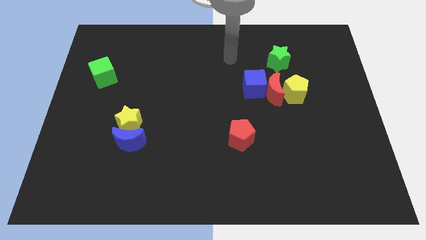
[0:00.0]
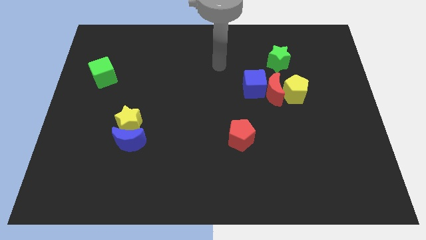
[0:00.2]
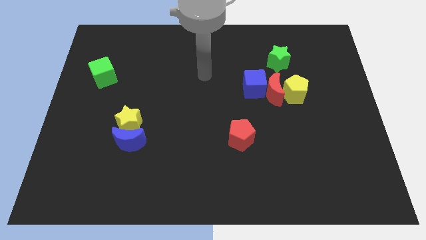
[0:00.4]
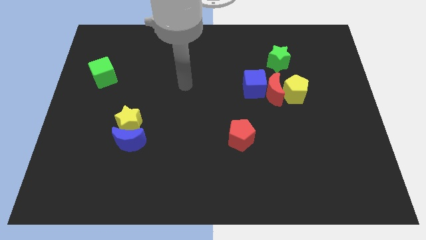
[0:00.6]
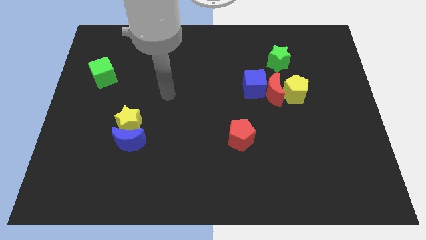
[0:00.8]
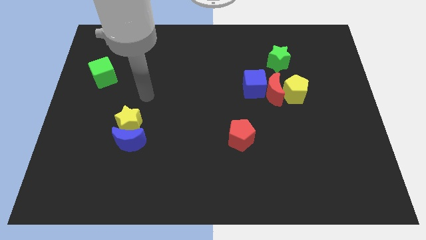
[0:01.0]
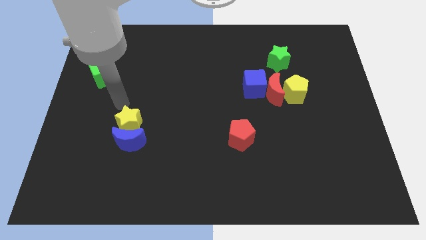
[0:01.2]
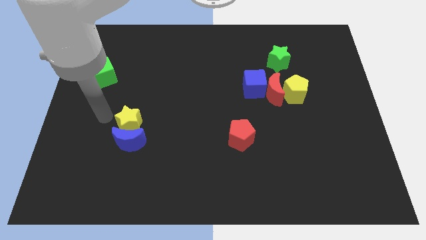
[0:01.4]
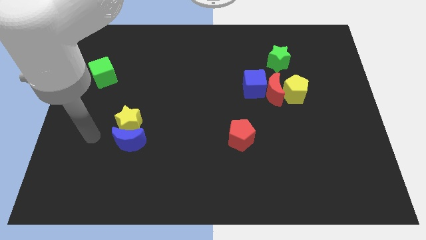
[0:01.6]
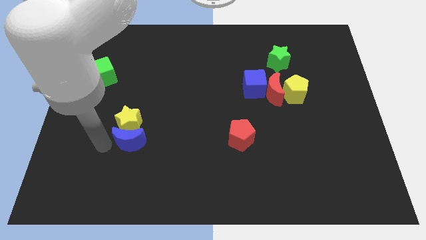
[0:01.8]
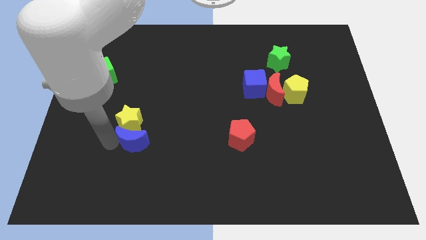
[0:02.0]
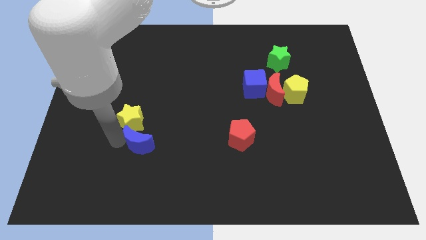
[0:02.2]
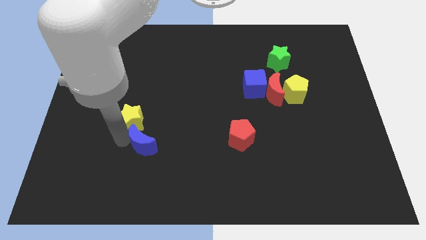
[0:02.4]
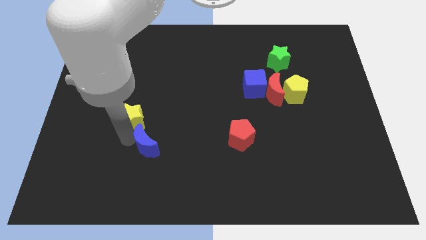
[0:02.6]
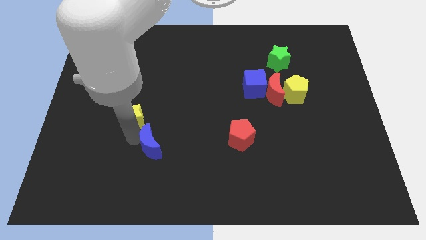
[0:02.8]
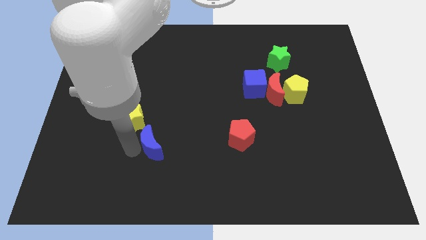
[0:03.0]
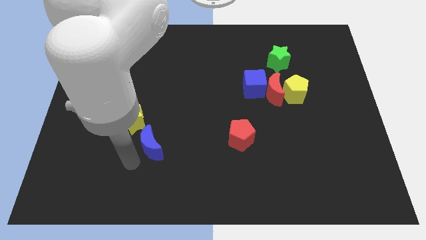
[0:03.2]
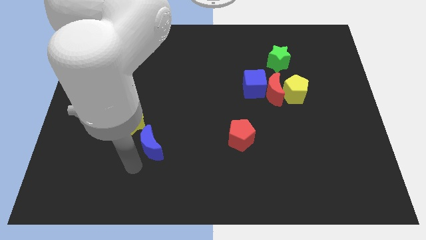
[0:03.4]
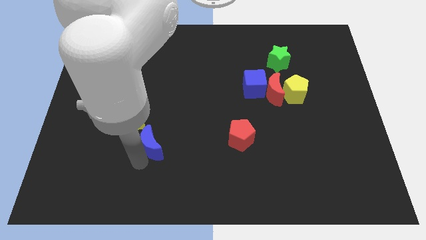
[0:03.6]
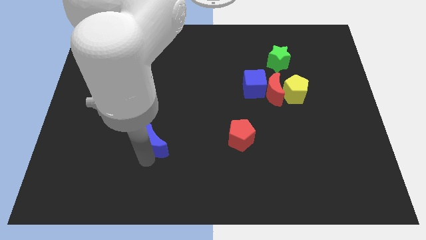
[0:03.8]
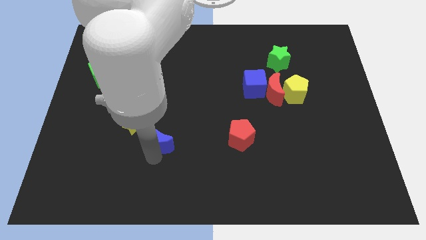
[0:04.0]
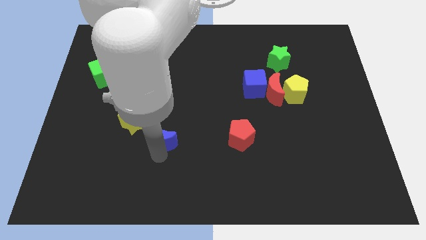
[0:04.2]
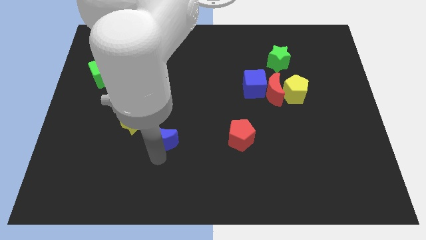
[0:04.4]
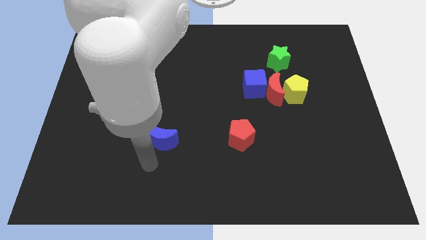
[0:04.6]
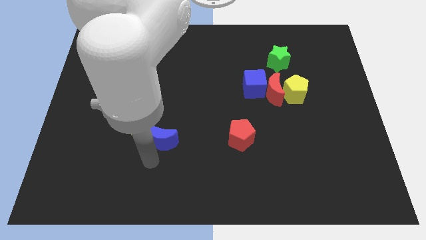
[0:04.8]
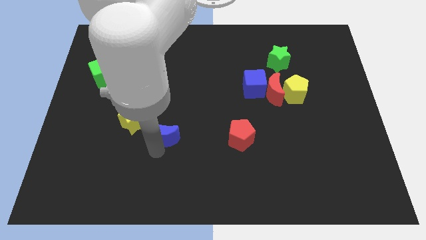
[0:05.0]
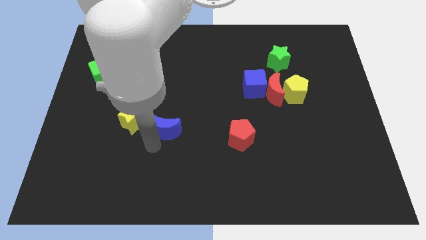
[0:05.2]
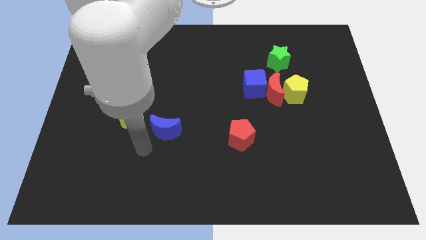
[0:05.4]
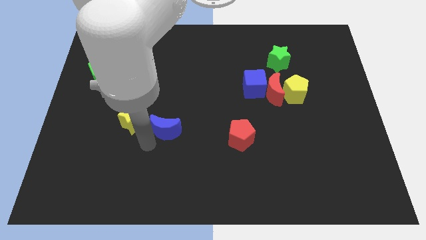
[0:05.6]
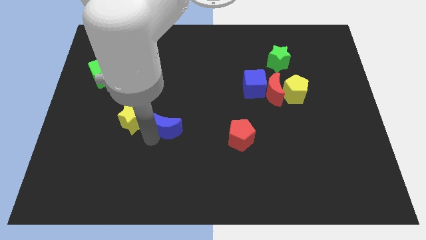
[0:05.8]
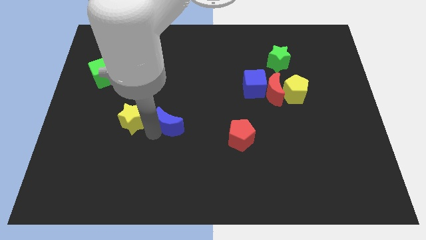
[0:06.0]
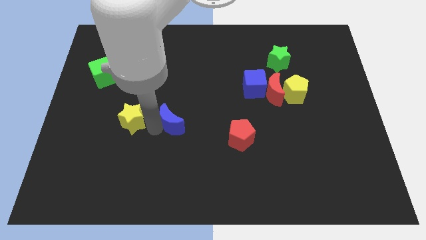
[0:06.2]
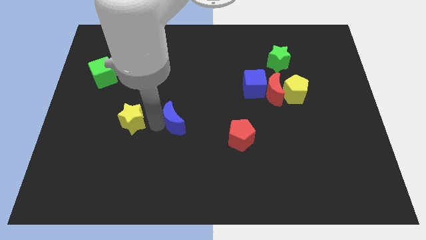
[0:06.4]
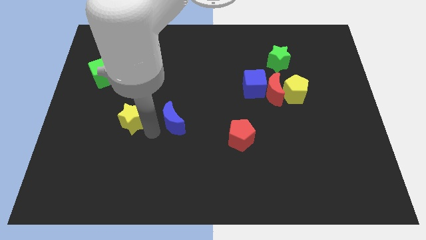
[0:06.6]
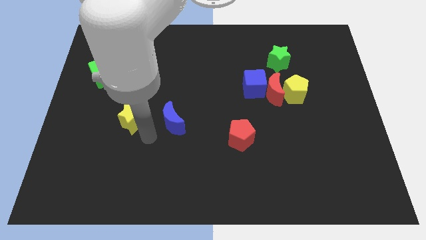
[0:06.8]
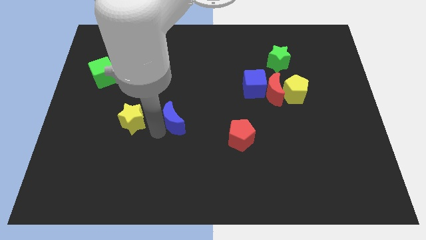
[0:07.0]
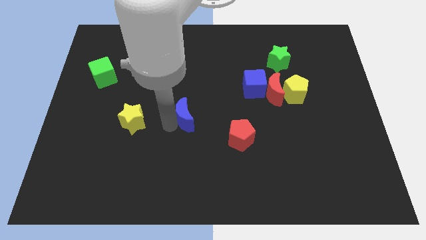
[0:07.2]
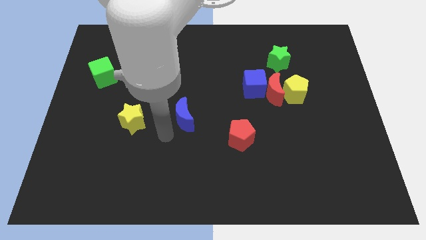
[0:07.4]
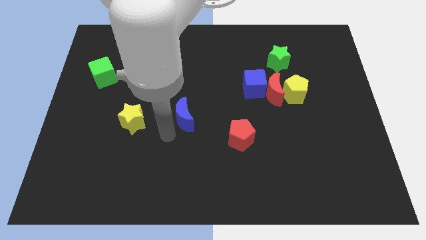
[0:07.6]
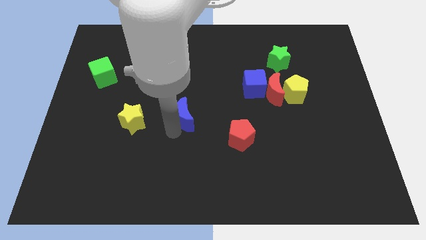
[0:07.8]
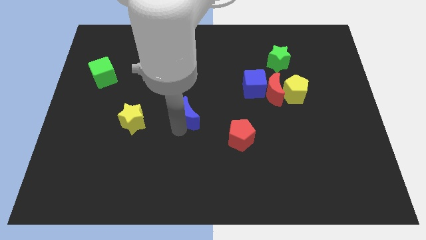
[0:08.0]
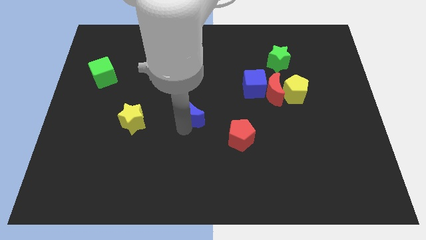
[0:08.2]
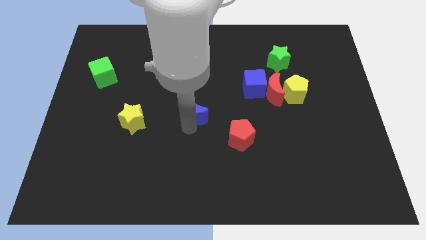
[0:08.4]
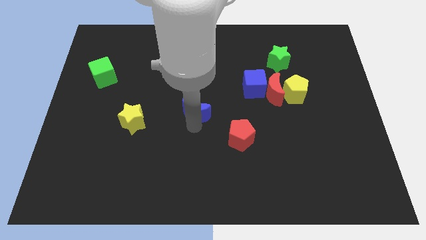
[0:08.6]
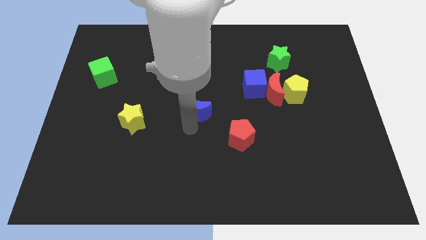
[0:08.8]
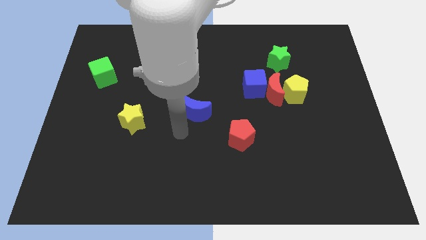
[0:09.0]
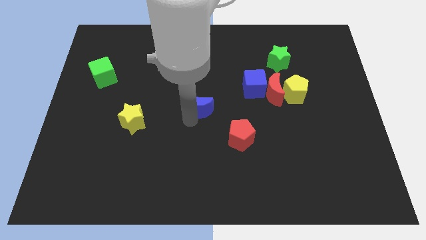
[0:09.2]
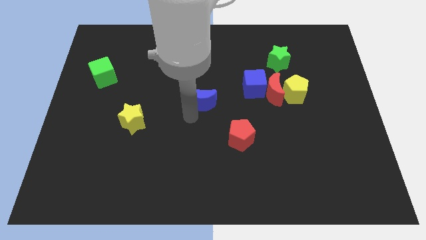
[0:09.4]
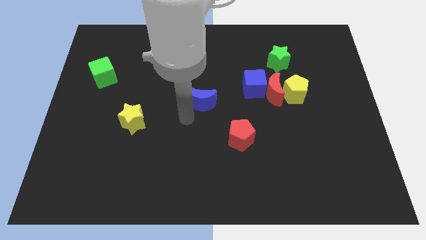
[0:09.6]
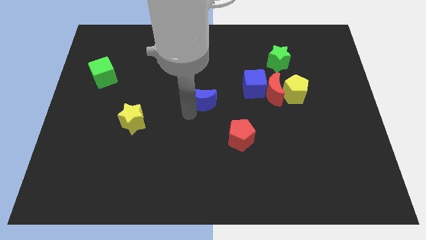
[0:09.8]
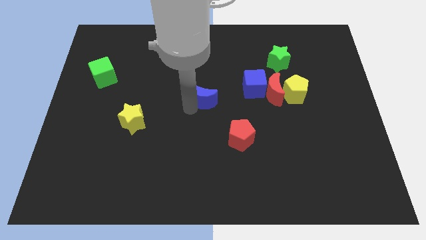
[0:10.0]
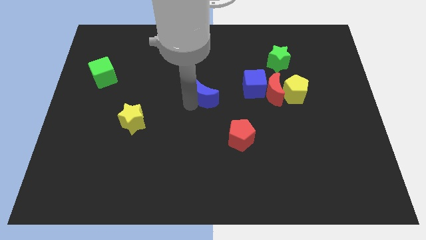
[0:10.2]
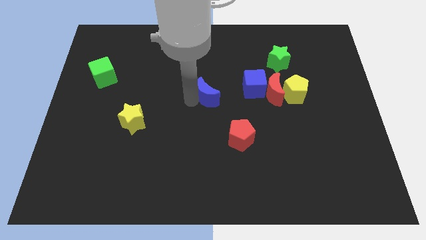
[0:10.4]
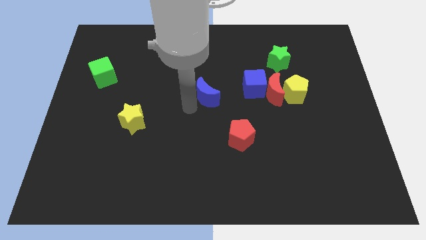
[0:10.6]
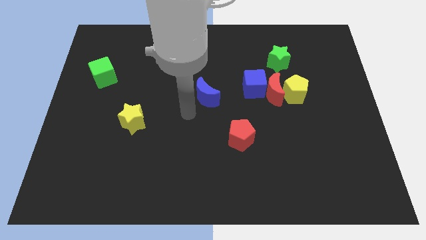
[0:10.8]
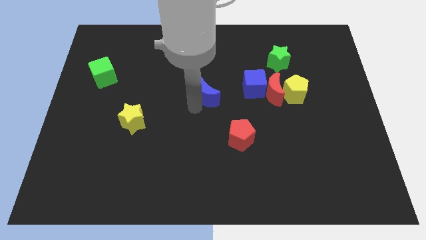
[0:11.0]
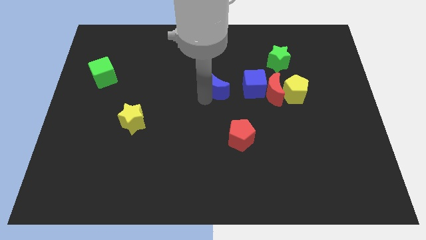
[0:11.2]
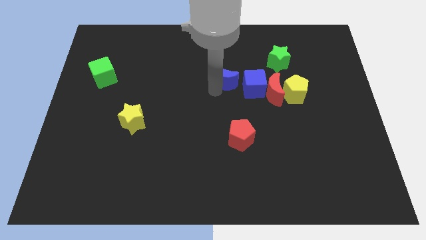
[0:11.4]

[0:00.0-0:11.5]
put the blue moon diagonally up and to the left of the blue cube

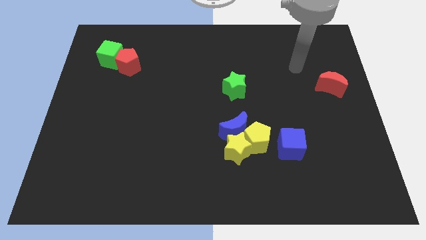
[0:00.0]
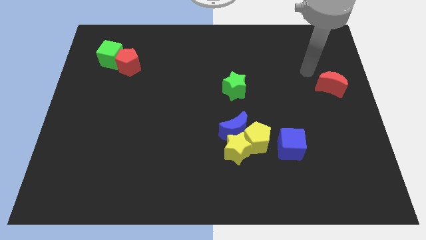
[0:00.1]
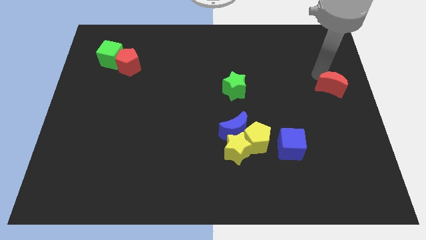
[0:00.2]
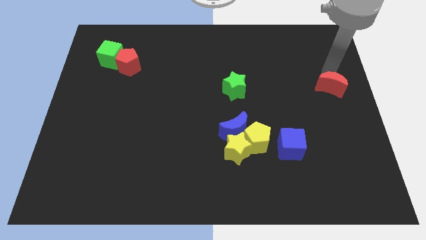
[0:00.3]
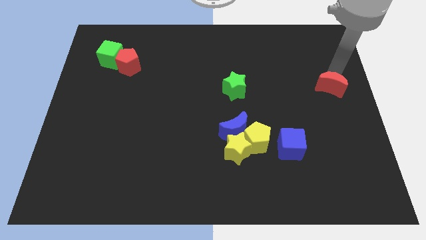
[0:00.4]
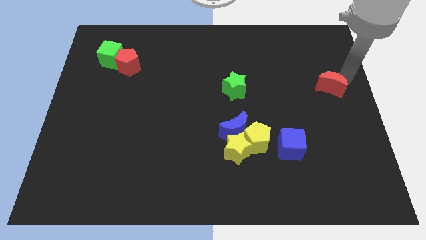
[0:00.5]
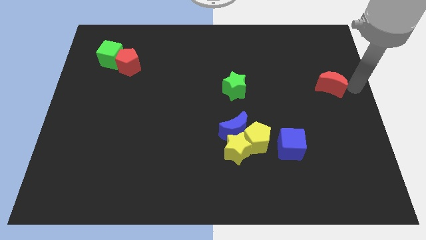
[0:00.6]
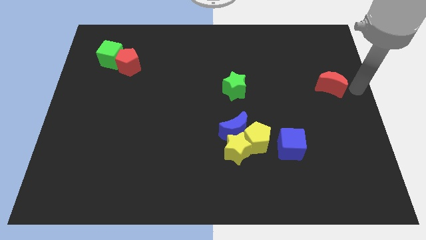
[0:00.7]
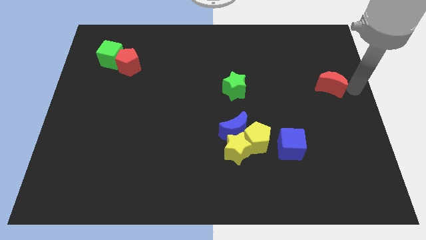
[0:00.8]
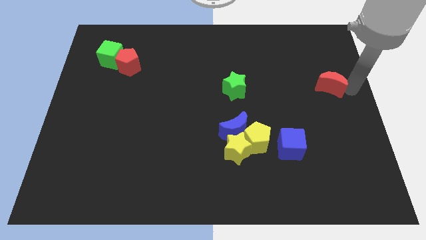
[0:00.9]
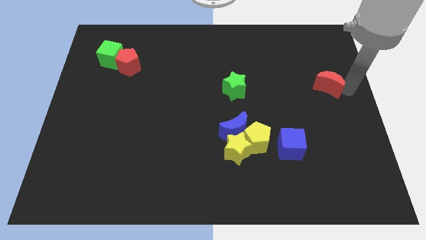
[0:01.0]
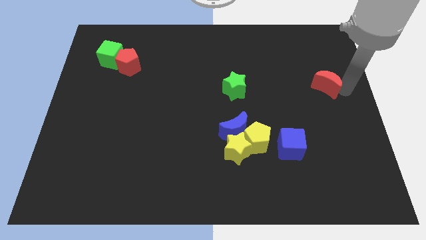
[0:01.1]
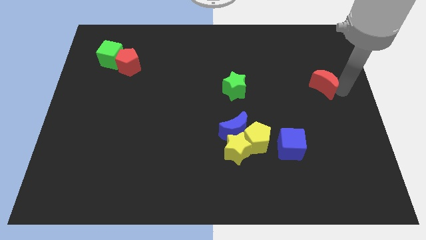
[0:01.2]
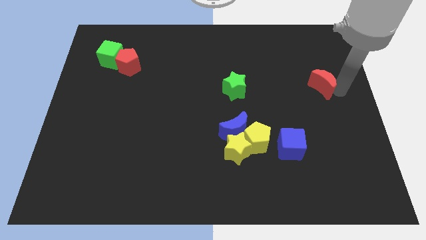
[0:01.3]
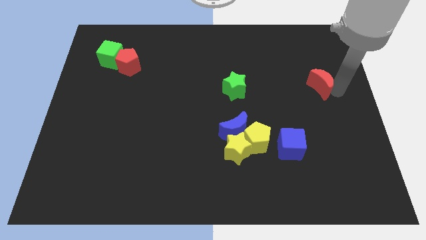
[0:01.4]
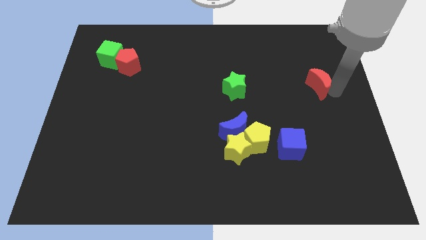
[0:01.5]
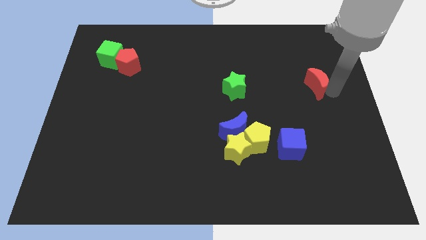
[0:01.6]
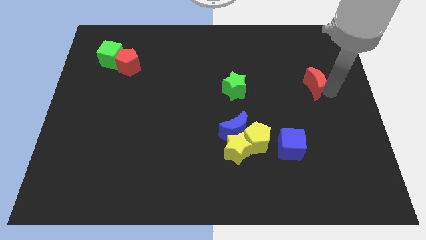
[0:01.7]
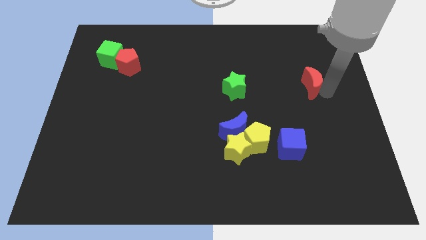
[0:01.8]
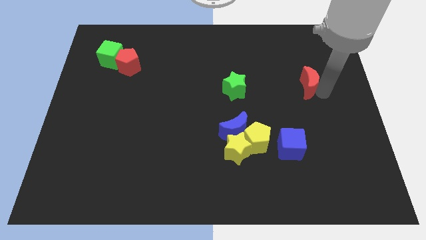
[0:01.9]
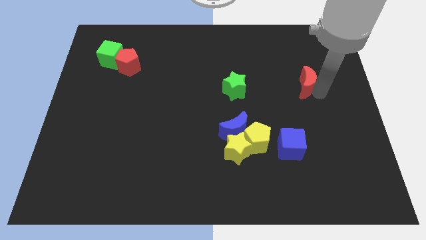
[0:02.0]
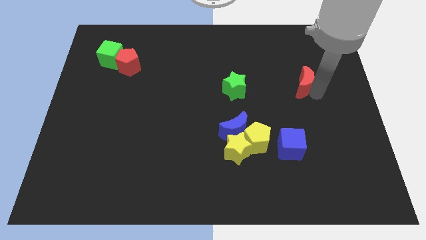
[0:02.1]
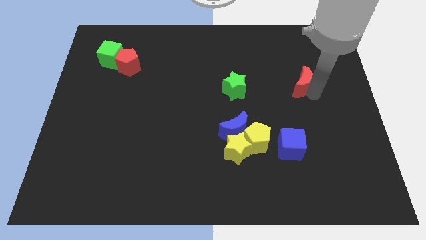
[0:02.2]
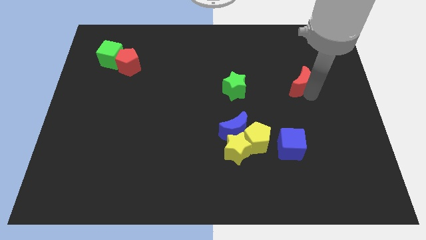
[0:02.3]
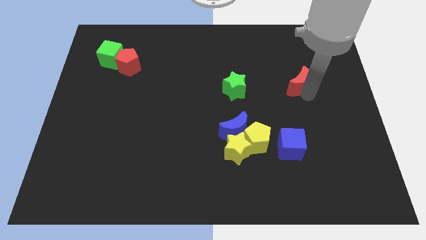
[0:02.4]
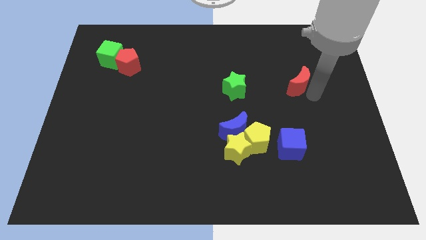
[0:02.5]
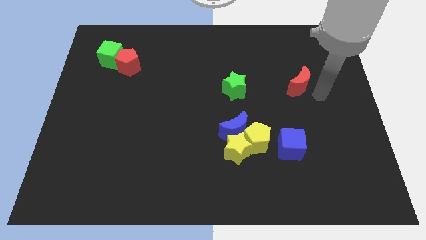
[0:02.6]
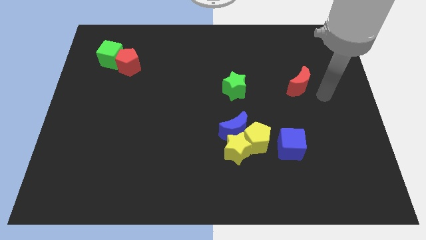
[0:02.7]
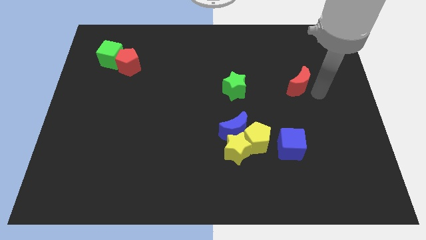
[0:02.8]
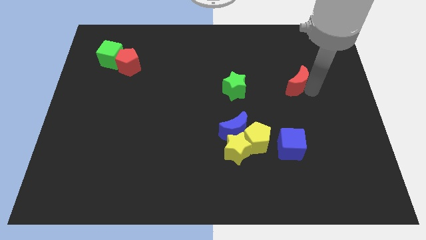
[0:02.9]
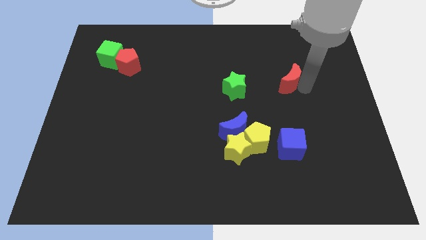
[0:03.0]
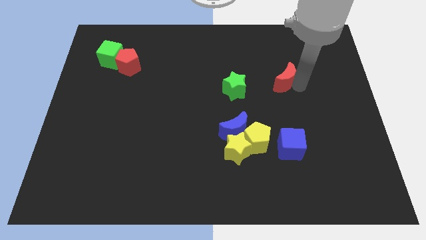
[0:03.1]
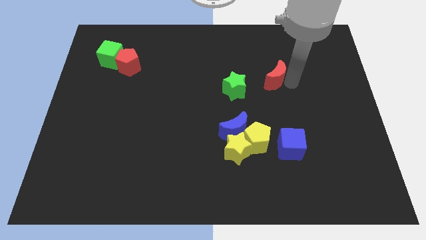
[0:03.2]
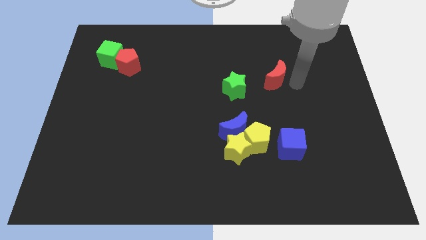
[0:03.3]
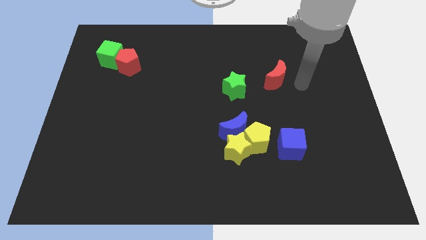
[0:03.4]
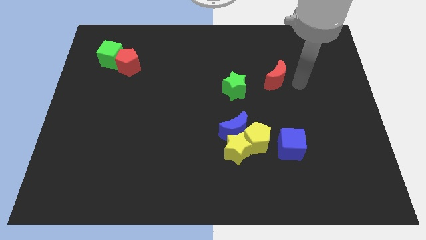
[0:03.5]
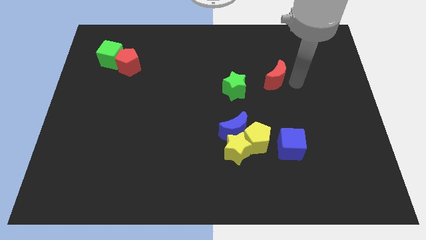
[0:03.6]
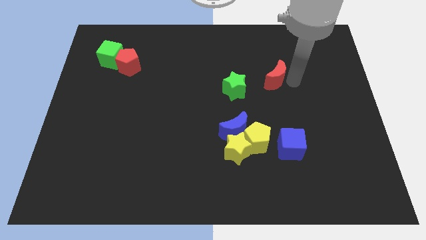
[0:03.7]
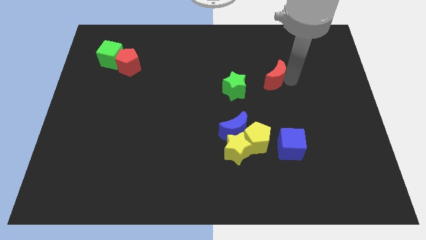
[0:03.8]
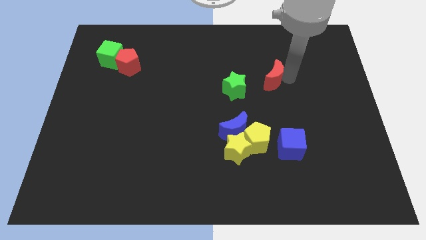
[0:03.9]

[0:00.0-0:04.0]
put the red moon diagonally up and to the right of the green star
